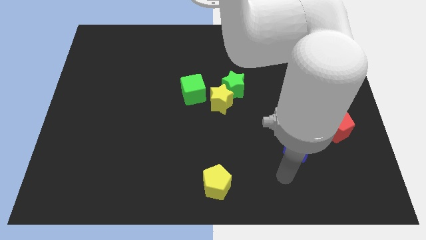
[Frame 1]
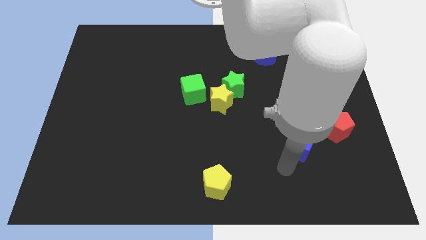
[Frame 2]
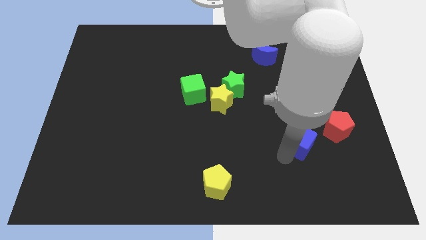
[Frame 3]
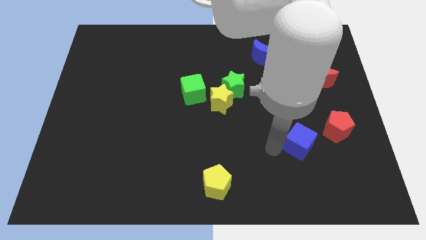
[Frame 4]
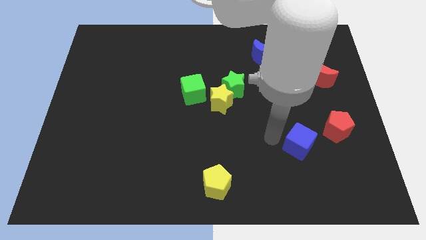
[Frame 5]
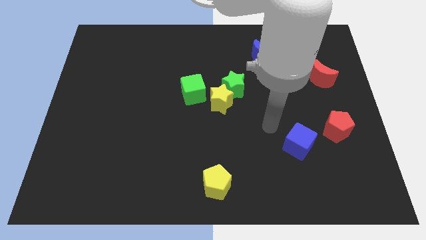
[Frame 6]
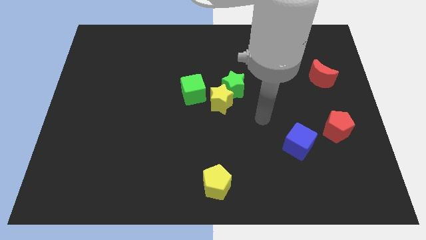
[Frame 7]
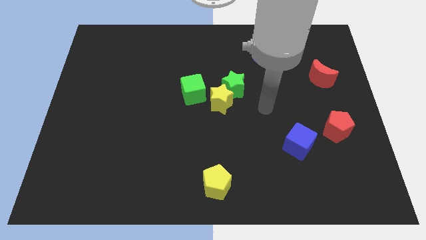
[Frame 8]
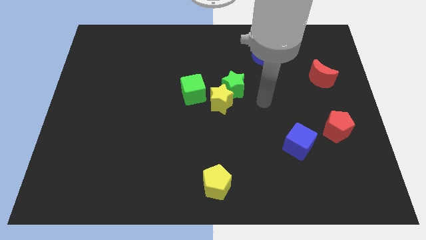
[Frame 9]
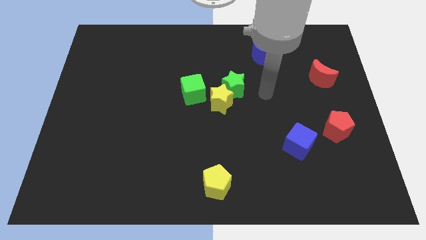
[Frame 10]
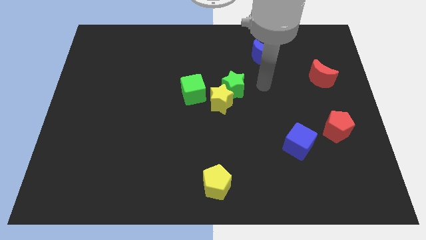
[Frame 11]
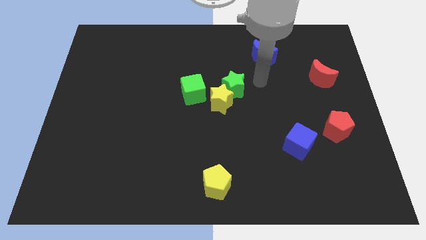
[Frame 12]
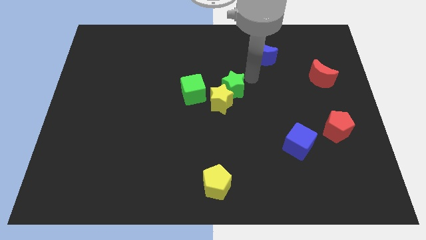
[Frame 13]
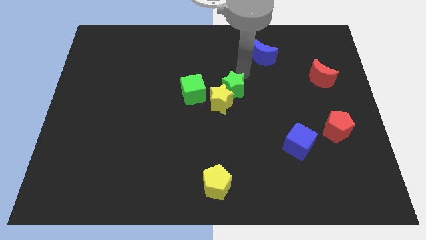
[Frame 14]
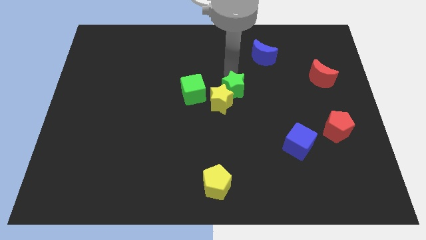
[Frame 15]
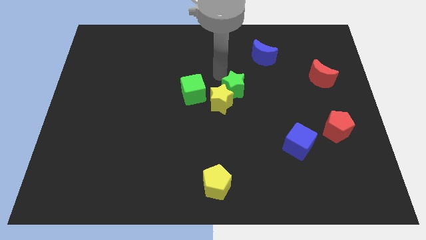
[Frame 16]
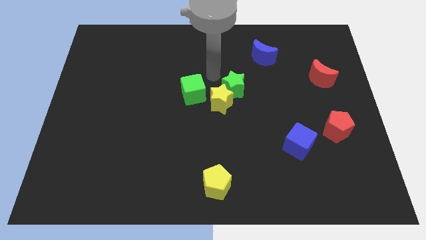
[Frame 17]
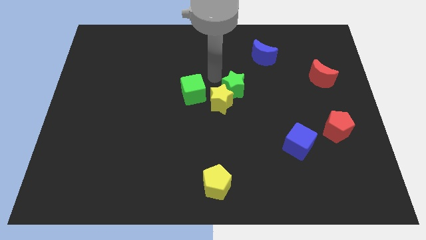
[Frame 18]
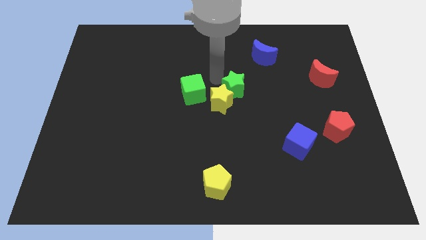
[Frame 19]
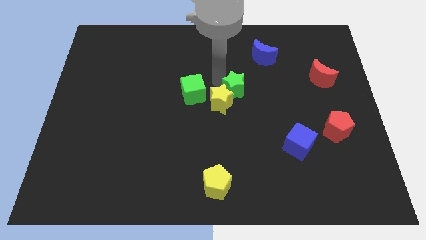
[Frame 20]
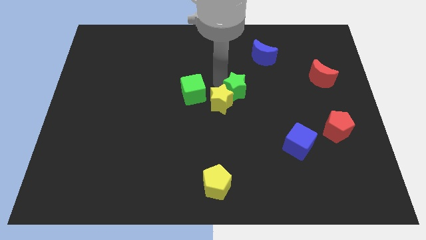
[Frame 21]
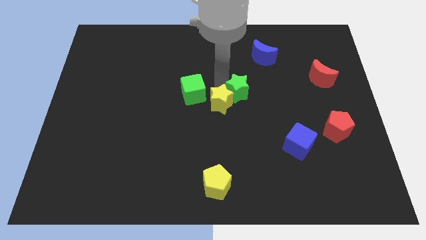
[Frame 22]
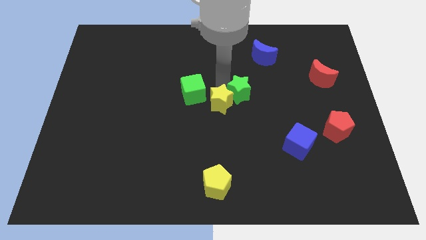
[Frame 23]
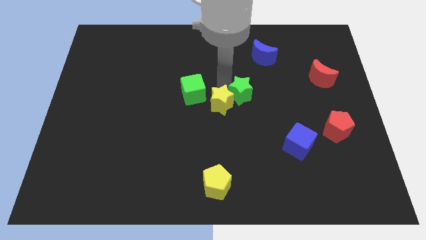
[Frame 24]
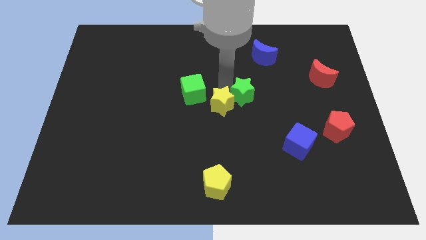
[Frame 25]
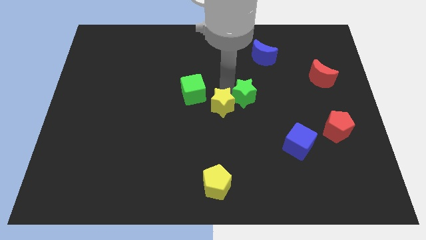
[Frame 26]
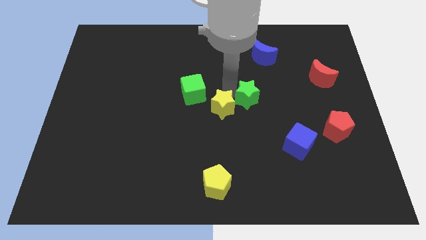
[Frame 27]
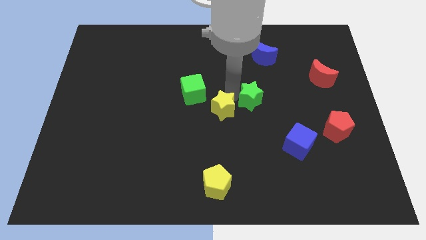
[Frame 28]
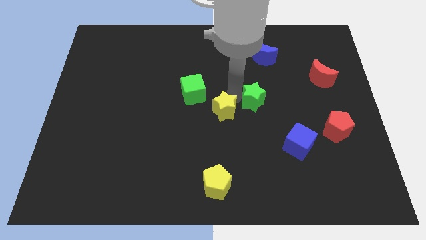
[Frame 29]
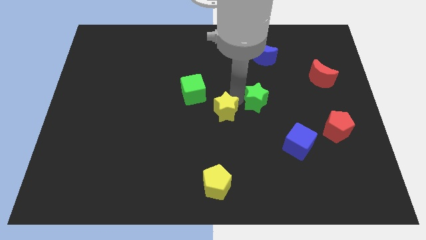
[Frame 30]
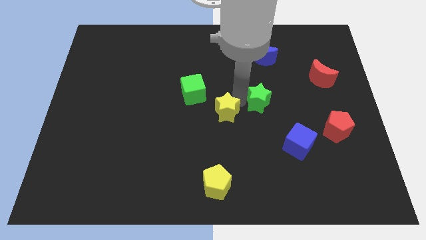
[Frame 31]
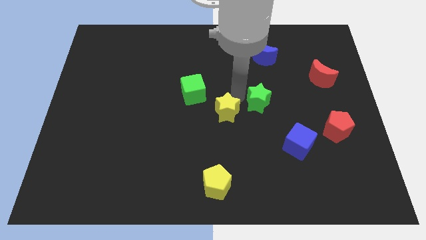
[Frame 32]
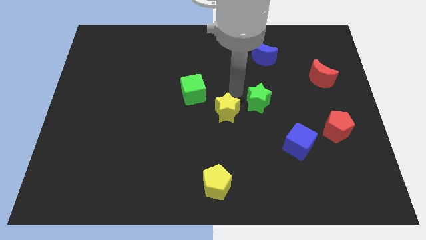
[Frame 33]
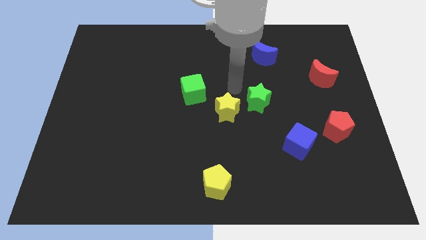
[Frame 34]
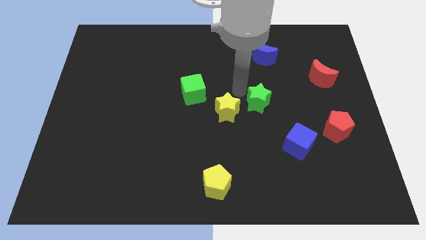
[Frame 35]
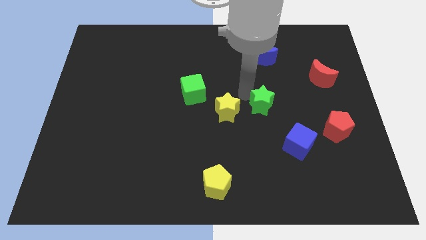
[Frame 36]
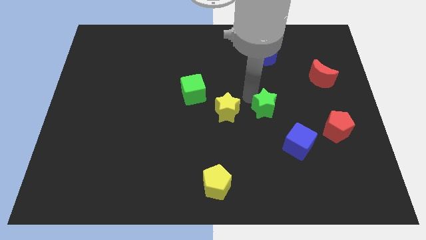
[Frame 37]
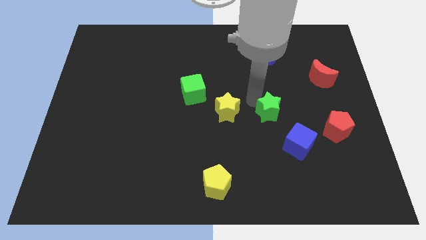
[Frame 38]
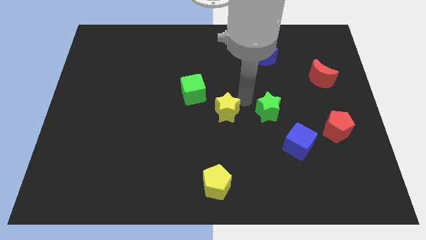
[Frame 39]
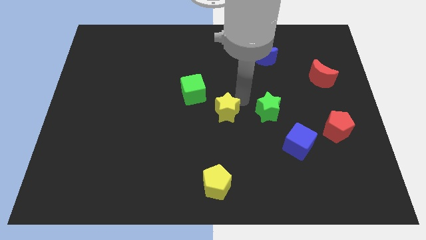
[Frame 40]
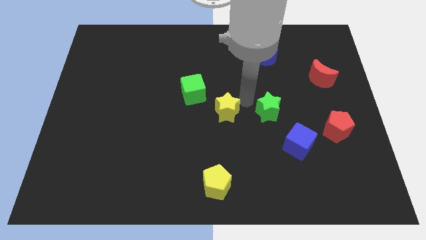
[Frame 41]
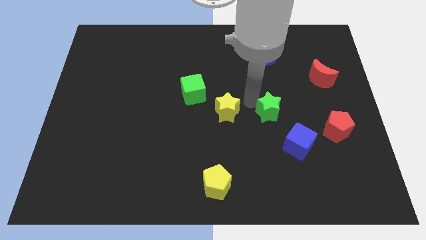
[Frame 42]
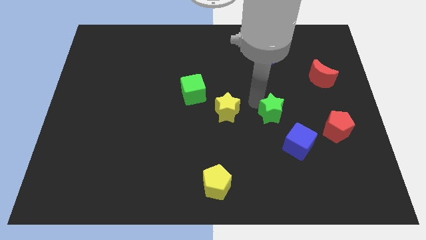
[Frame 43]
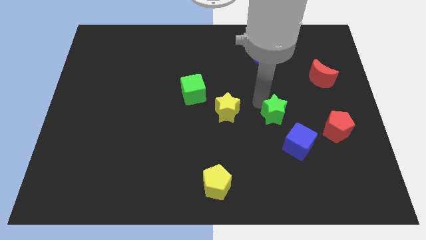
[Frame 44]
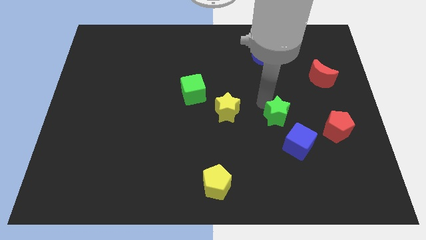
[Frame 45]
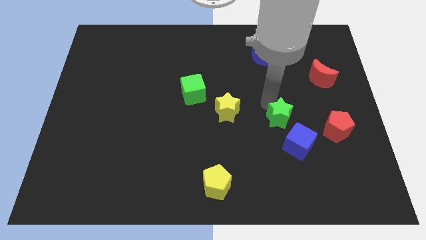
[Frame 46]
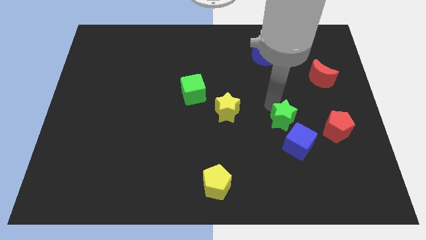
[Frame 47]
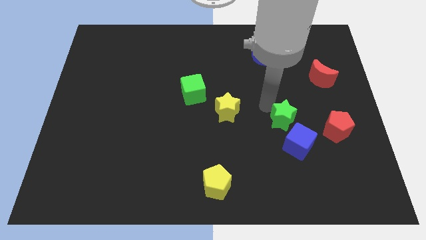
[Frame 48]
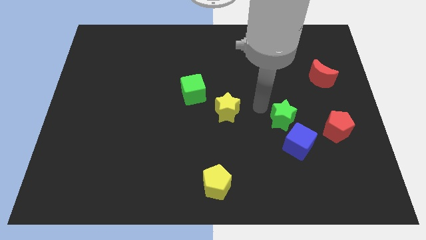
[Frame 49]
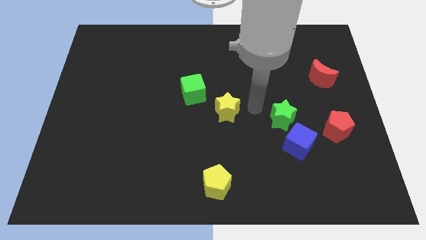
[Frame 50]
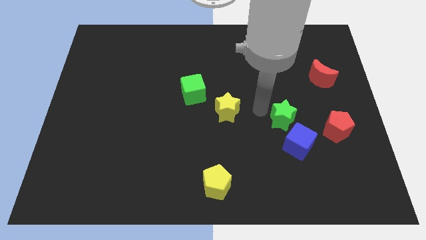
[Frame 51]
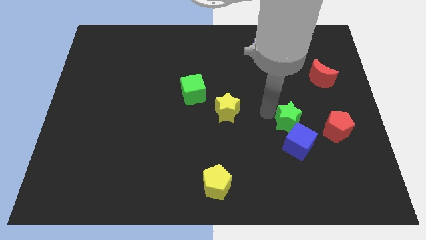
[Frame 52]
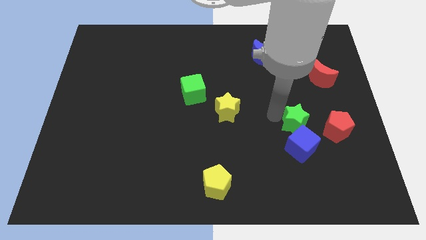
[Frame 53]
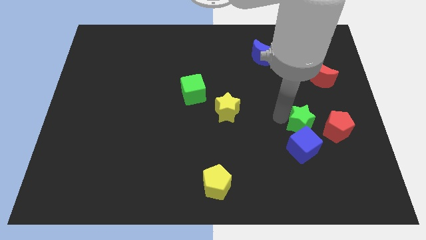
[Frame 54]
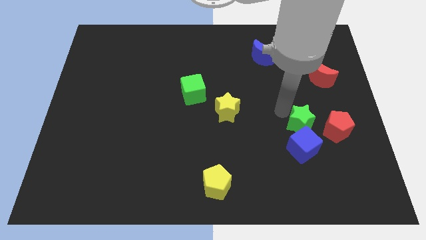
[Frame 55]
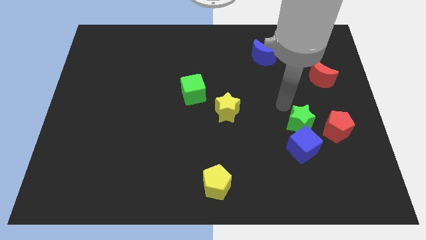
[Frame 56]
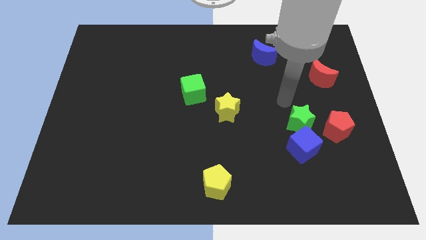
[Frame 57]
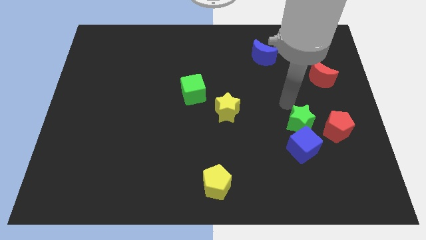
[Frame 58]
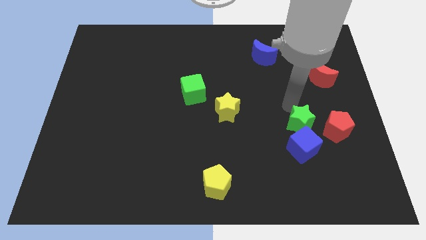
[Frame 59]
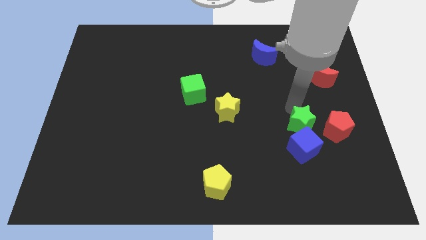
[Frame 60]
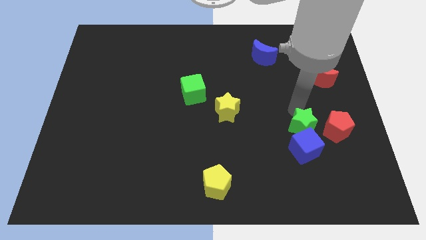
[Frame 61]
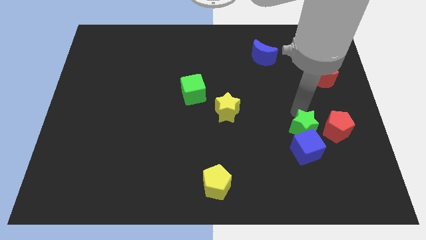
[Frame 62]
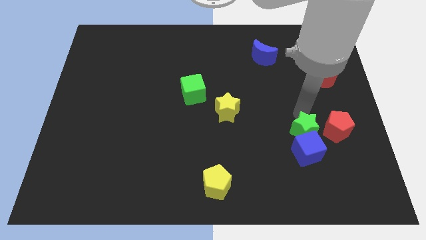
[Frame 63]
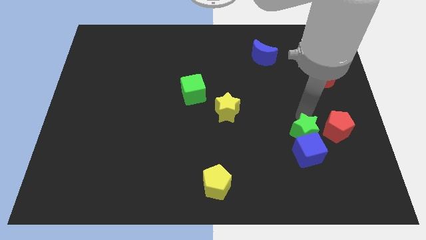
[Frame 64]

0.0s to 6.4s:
slide the green star diagonally down and to the left of the red pentagon

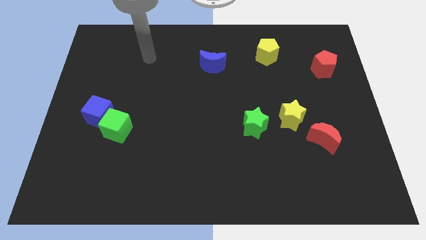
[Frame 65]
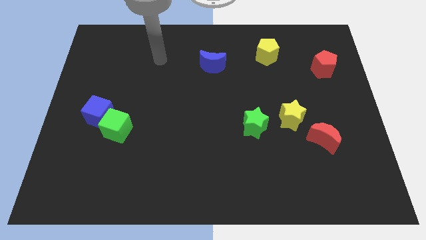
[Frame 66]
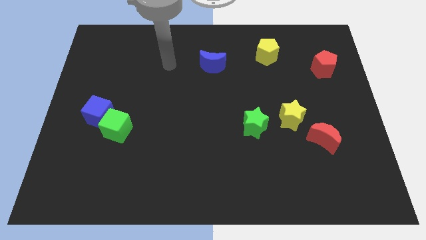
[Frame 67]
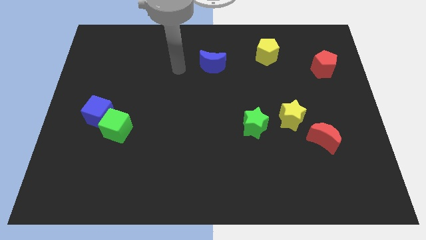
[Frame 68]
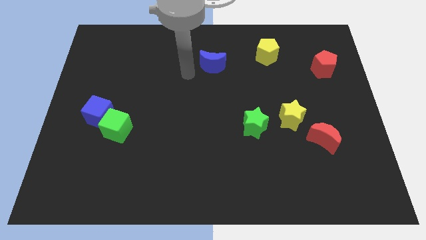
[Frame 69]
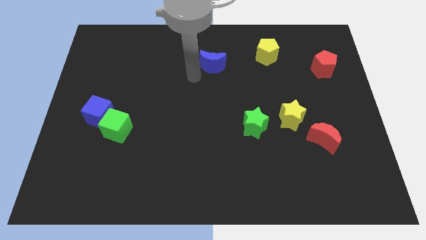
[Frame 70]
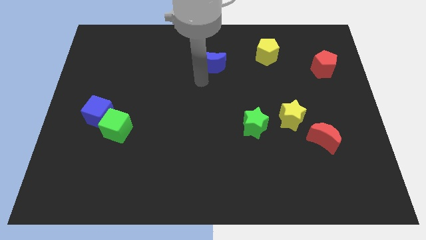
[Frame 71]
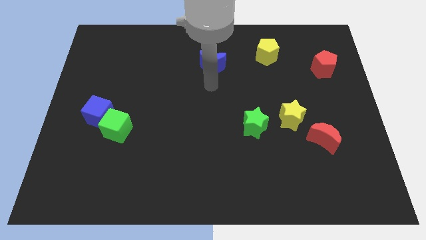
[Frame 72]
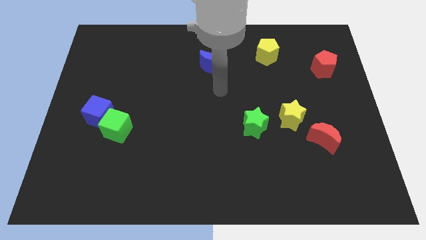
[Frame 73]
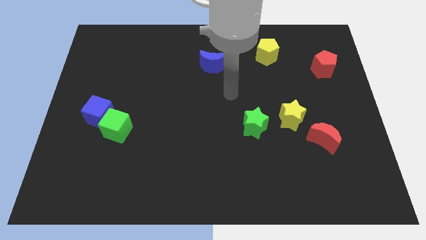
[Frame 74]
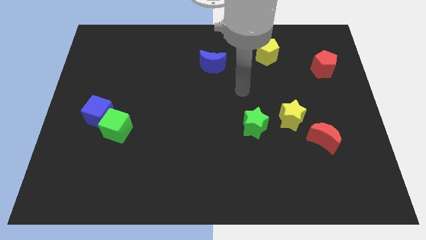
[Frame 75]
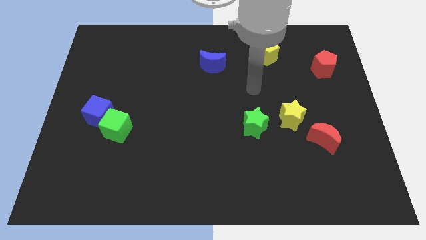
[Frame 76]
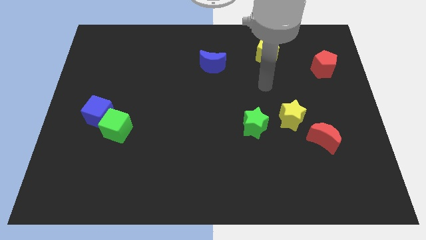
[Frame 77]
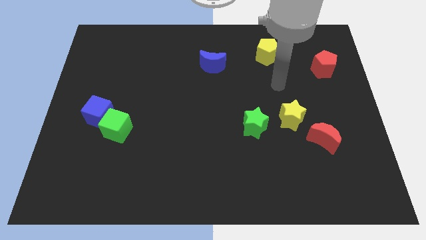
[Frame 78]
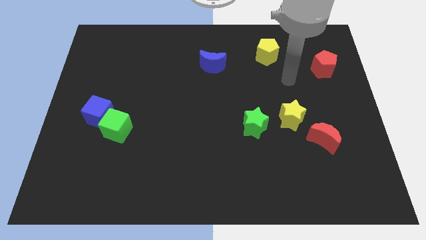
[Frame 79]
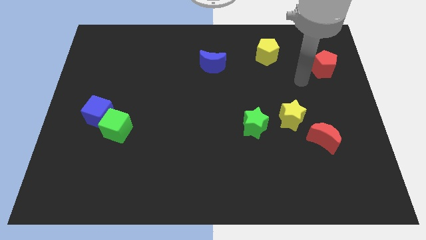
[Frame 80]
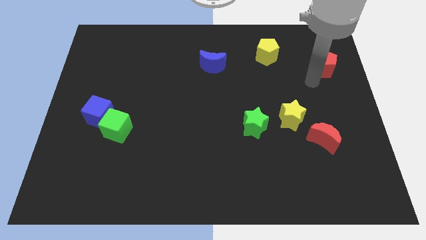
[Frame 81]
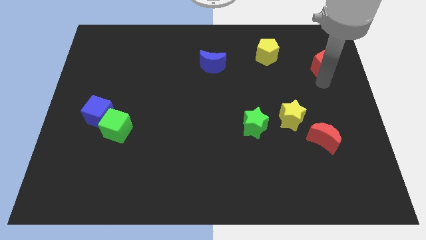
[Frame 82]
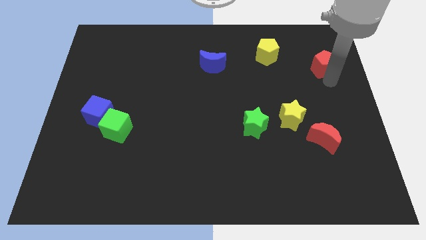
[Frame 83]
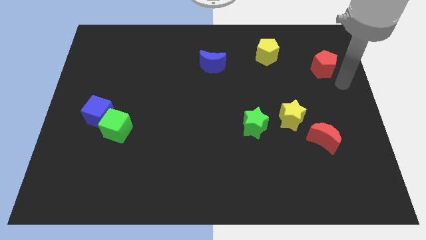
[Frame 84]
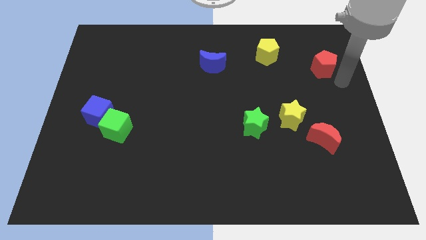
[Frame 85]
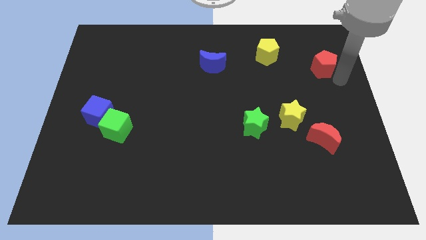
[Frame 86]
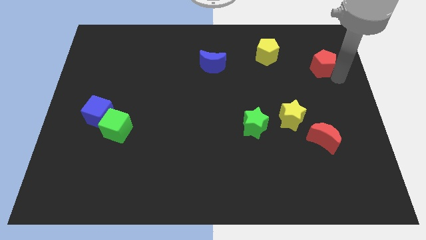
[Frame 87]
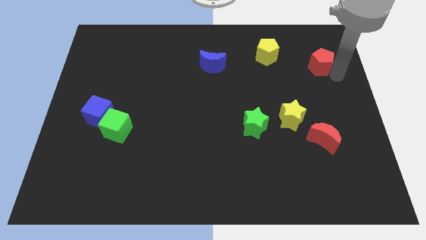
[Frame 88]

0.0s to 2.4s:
slide the red pentagon to the right of the yellow pentagon
